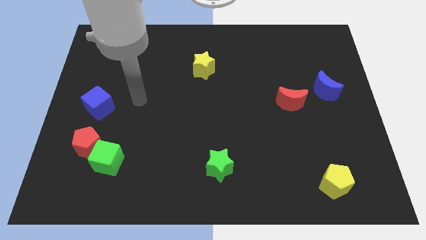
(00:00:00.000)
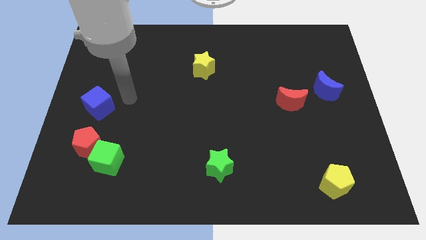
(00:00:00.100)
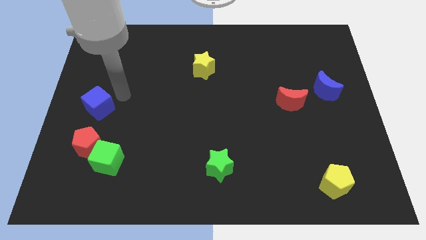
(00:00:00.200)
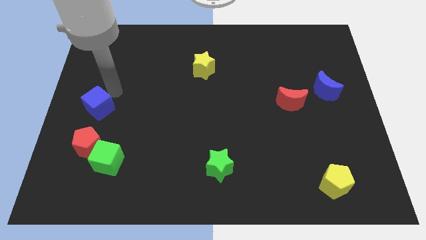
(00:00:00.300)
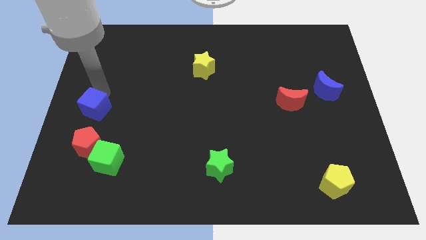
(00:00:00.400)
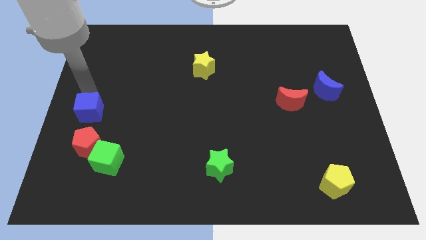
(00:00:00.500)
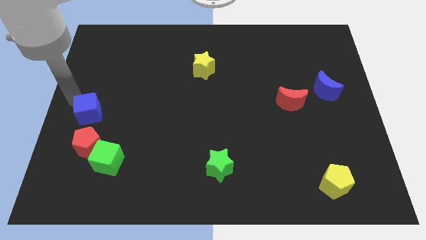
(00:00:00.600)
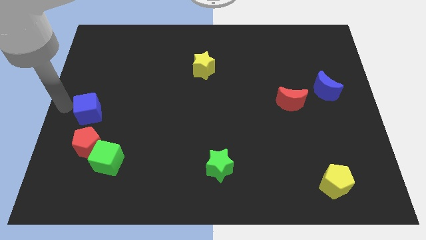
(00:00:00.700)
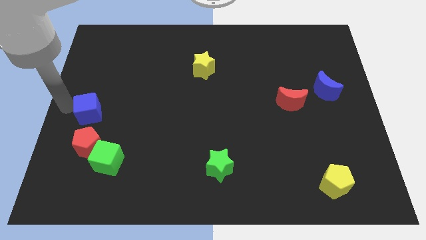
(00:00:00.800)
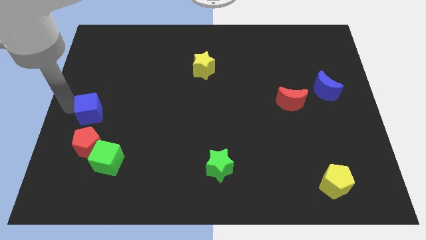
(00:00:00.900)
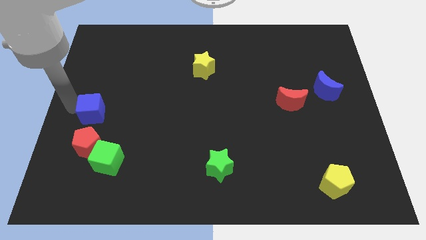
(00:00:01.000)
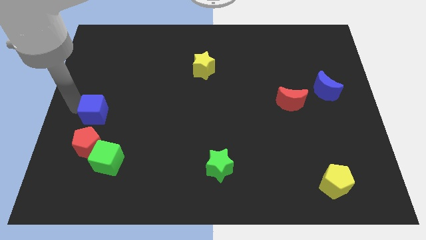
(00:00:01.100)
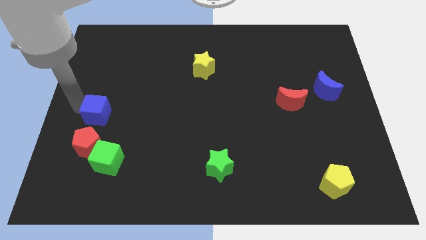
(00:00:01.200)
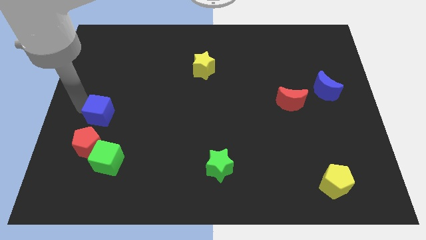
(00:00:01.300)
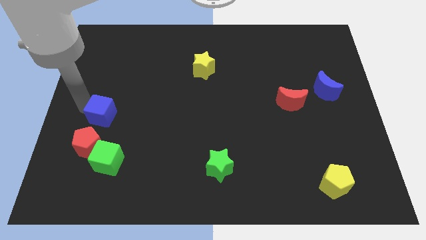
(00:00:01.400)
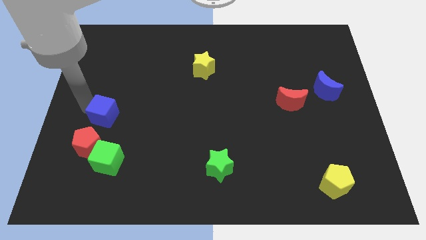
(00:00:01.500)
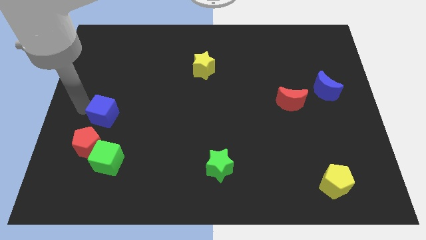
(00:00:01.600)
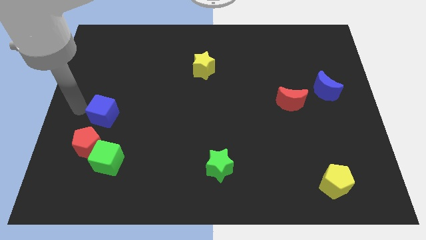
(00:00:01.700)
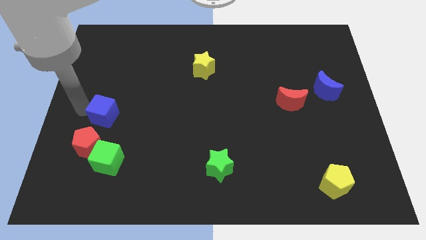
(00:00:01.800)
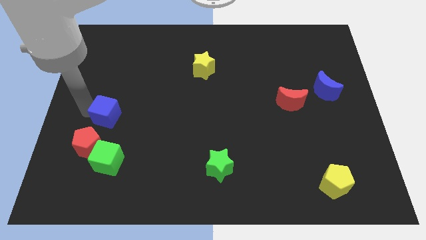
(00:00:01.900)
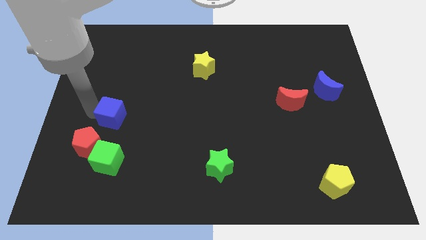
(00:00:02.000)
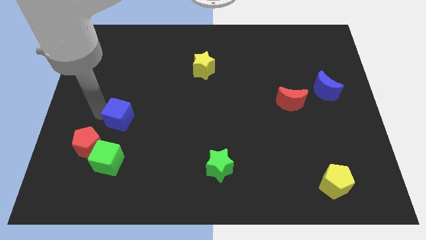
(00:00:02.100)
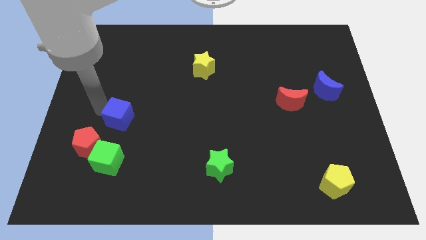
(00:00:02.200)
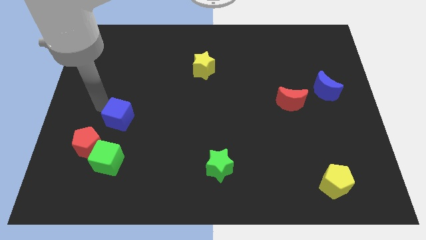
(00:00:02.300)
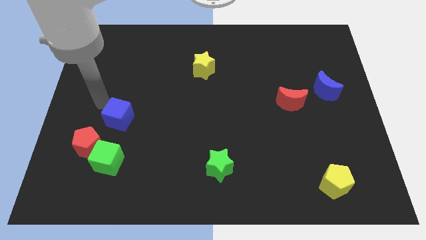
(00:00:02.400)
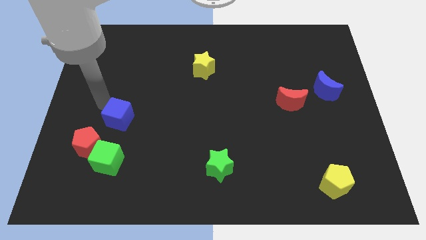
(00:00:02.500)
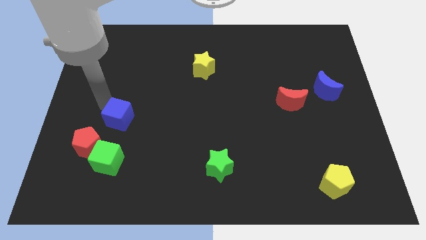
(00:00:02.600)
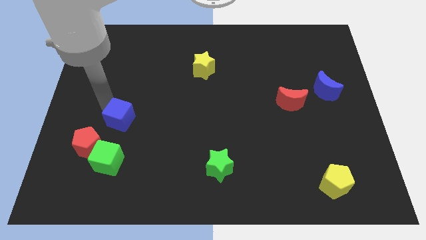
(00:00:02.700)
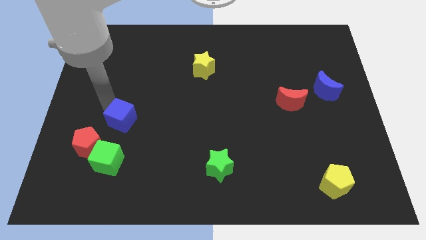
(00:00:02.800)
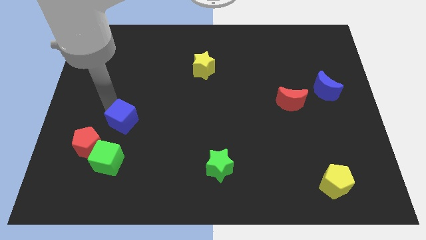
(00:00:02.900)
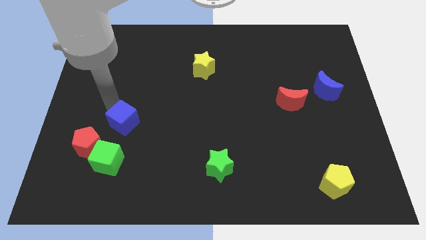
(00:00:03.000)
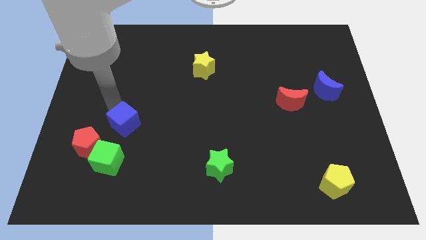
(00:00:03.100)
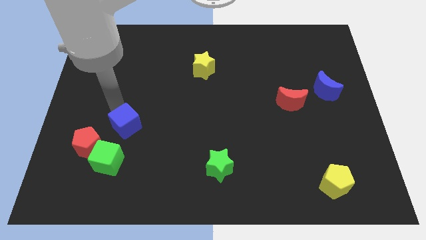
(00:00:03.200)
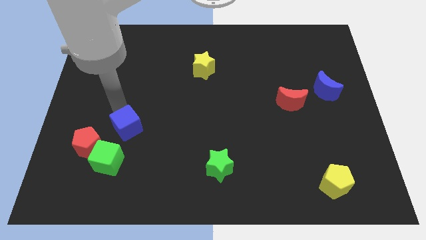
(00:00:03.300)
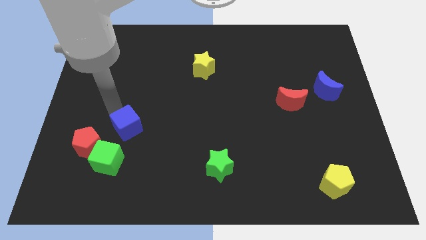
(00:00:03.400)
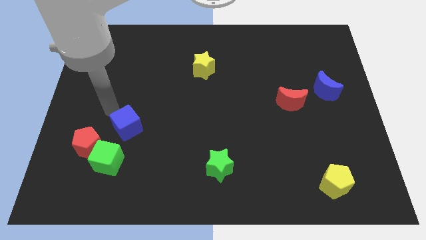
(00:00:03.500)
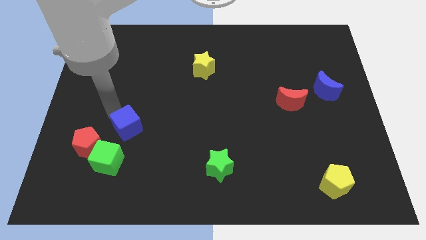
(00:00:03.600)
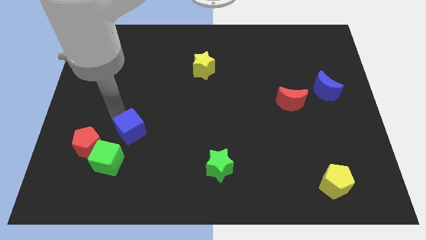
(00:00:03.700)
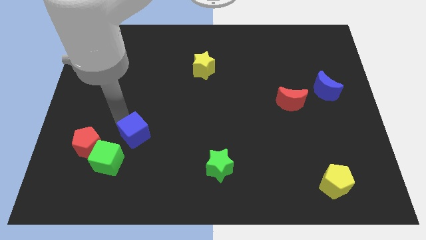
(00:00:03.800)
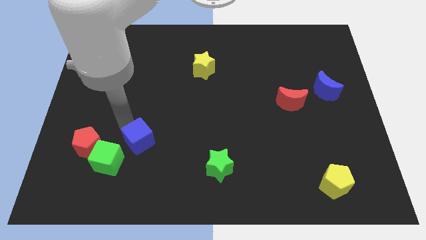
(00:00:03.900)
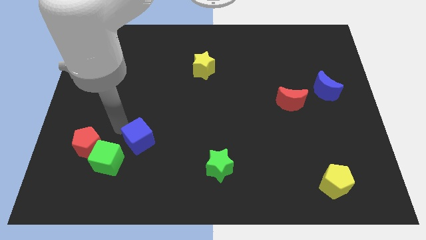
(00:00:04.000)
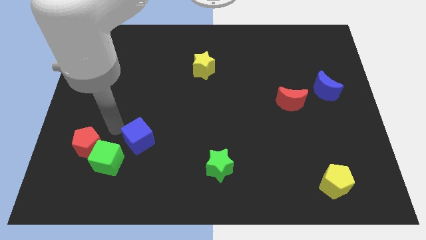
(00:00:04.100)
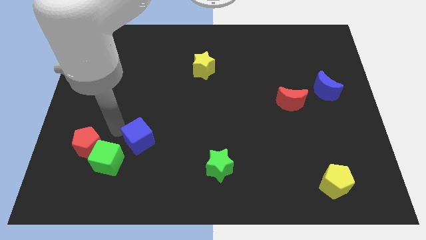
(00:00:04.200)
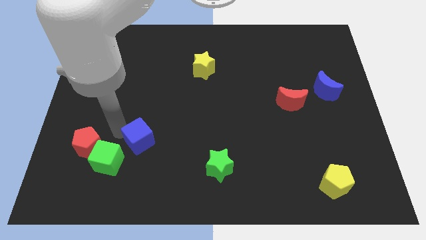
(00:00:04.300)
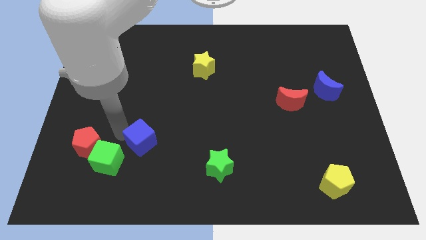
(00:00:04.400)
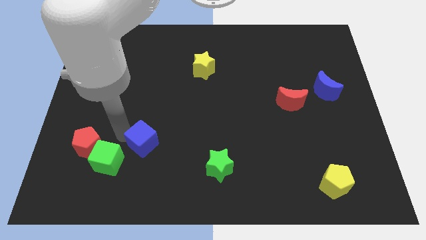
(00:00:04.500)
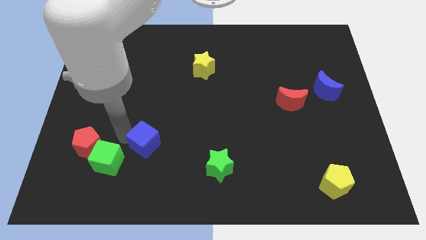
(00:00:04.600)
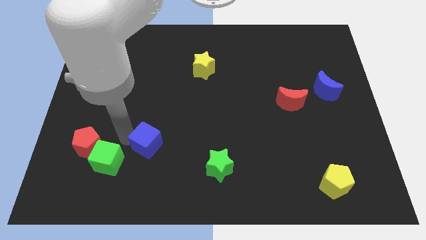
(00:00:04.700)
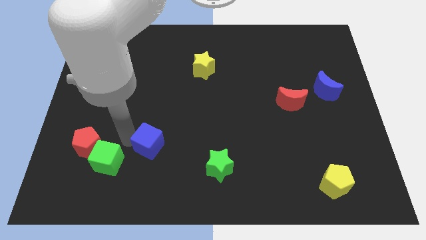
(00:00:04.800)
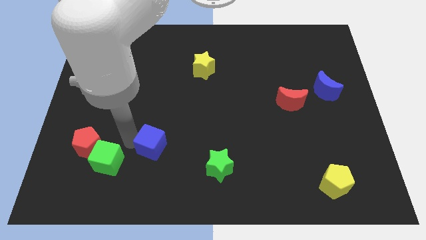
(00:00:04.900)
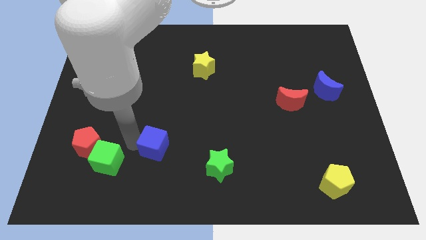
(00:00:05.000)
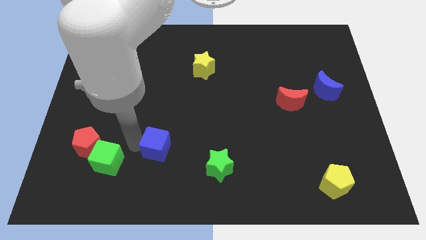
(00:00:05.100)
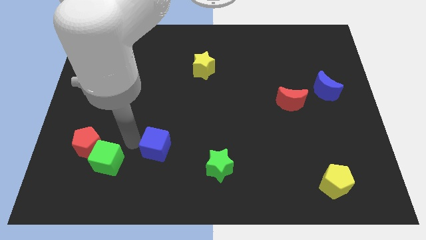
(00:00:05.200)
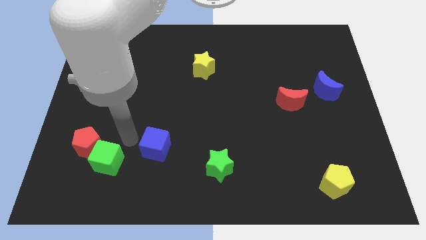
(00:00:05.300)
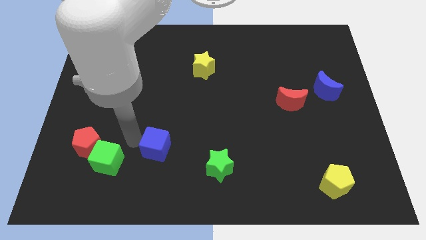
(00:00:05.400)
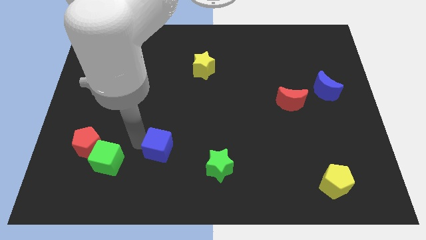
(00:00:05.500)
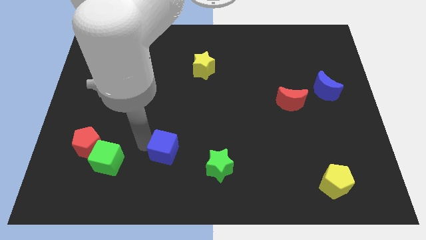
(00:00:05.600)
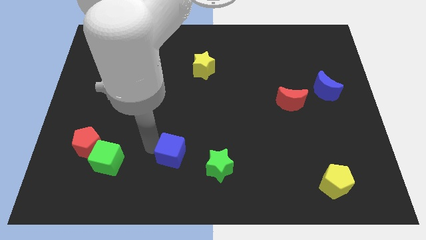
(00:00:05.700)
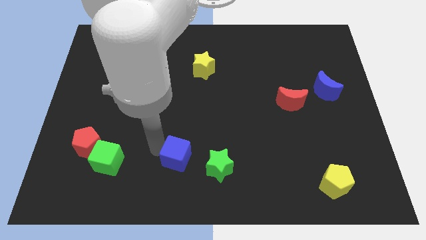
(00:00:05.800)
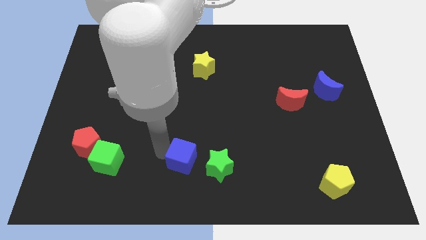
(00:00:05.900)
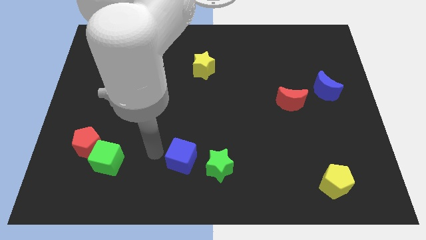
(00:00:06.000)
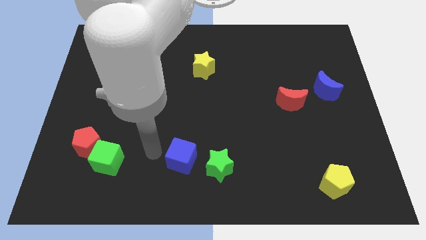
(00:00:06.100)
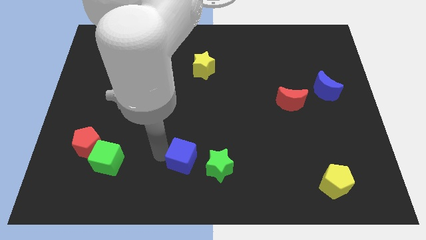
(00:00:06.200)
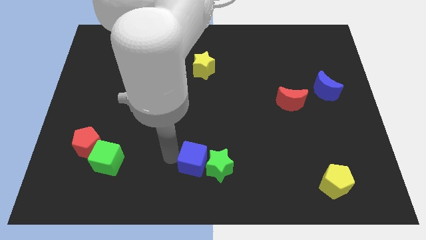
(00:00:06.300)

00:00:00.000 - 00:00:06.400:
move the blue cube to the green star
